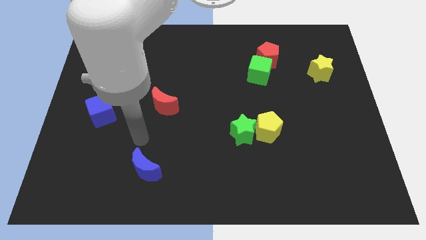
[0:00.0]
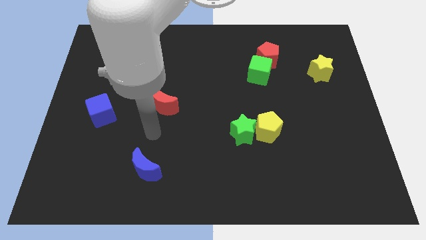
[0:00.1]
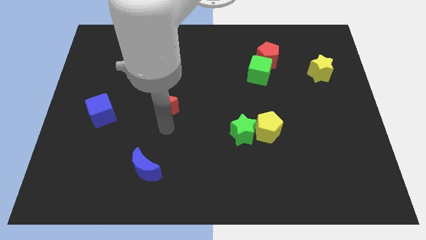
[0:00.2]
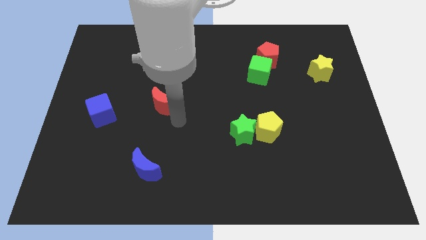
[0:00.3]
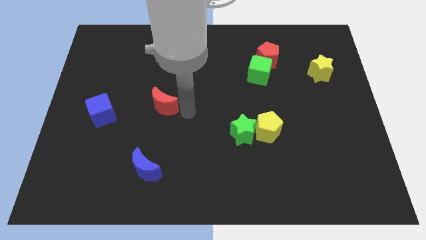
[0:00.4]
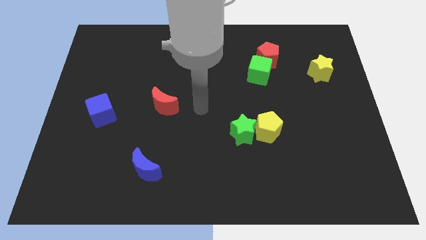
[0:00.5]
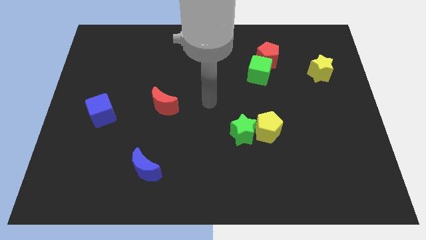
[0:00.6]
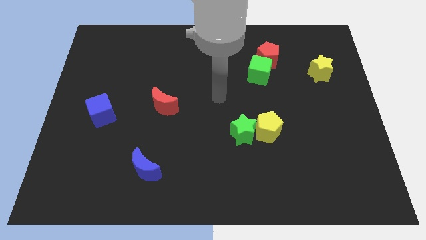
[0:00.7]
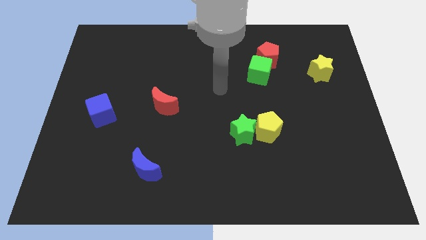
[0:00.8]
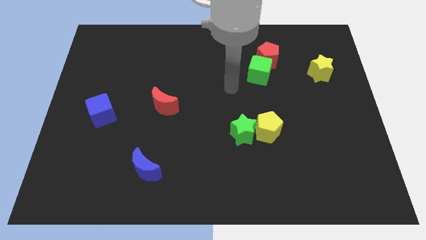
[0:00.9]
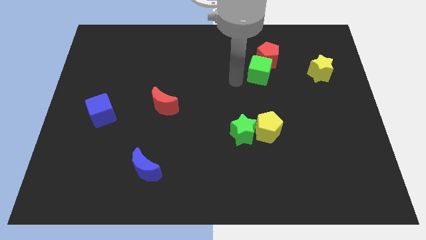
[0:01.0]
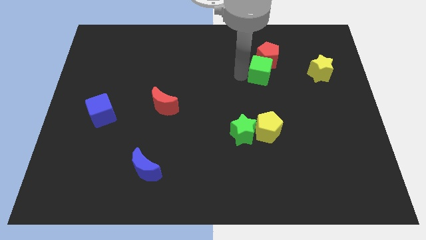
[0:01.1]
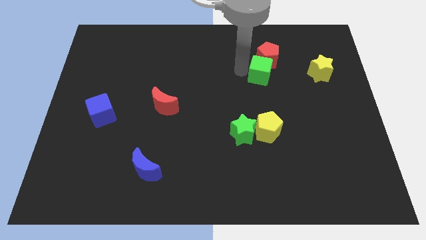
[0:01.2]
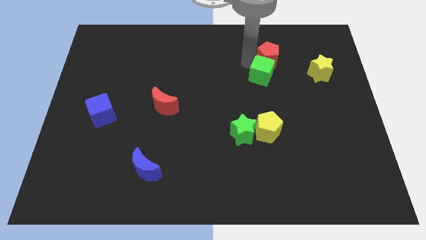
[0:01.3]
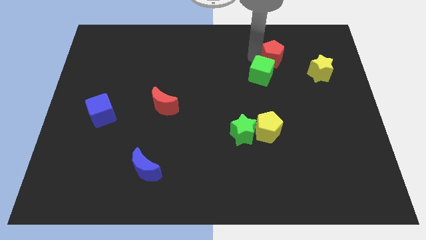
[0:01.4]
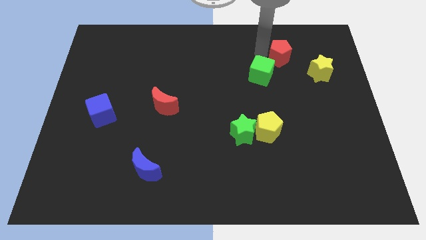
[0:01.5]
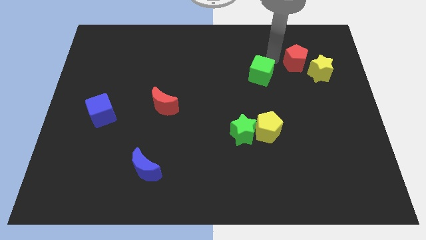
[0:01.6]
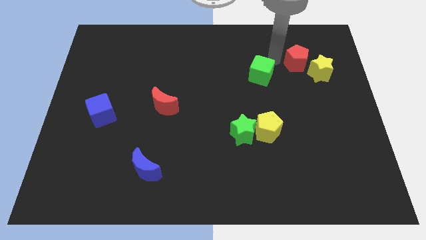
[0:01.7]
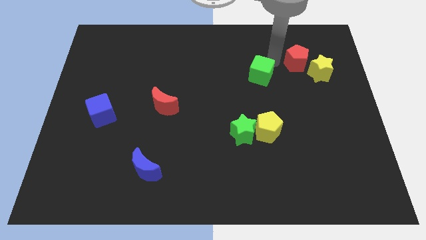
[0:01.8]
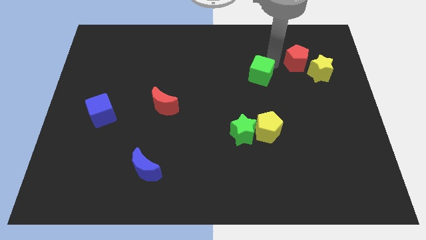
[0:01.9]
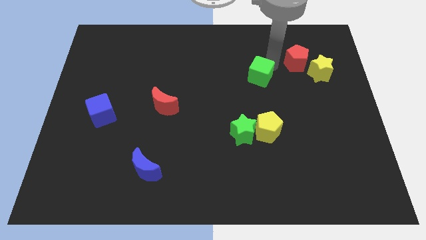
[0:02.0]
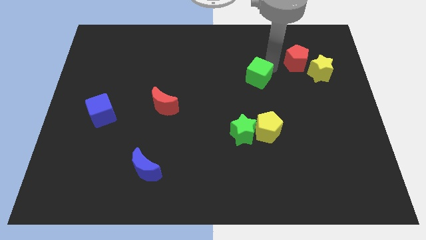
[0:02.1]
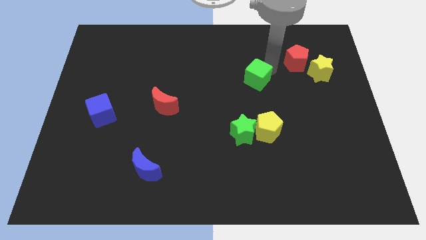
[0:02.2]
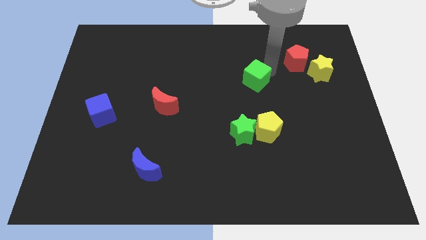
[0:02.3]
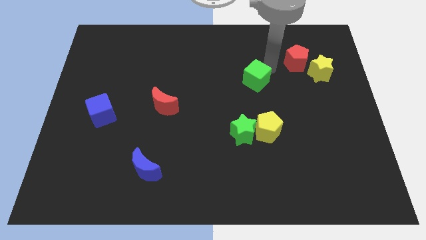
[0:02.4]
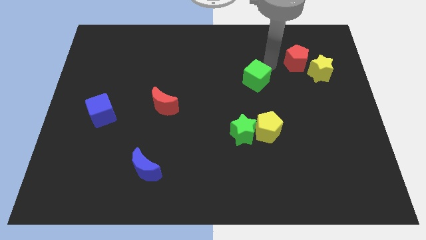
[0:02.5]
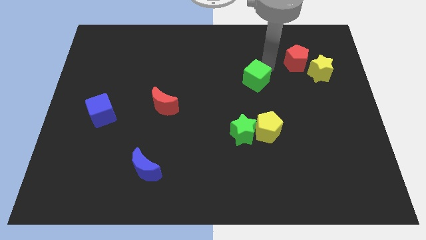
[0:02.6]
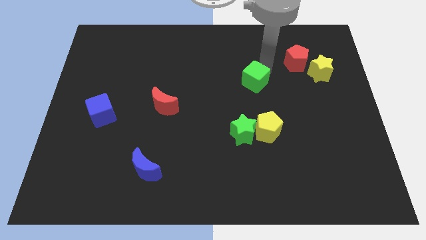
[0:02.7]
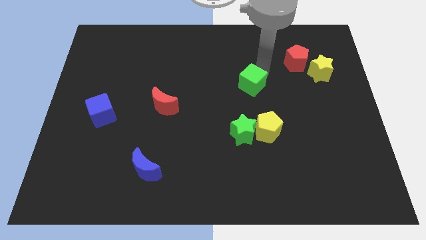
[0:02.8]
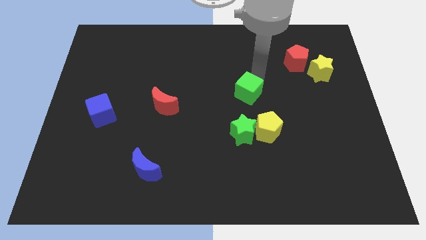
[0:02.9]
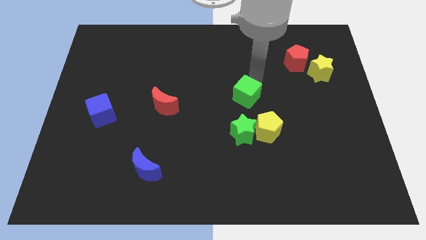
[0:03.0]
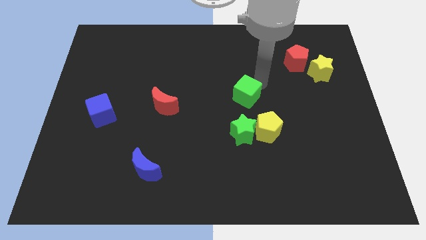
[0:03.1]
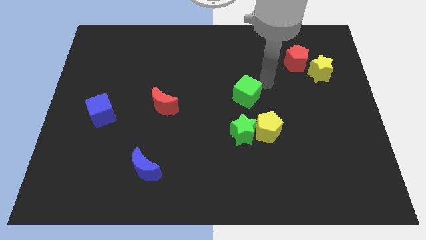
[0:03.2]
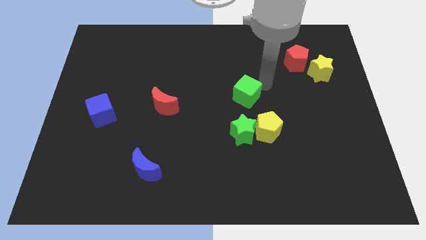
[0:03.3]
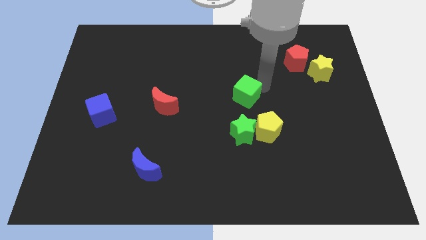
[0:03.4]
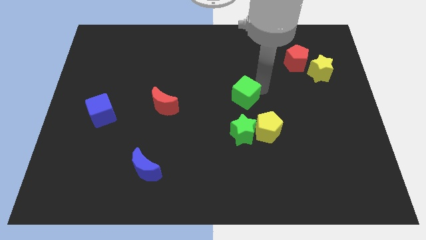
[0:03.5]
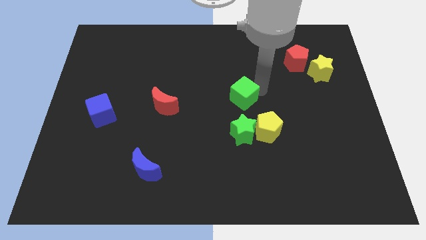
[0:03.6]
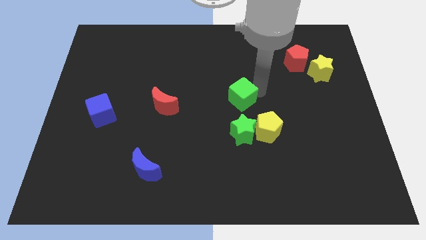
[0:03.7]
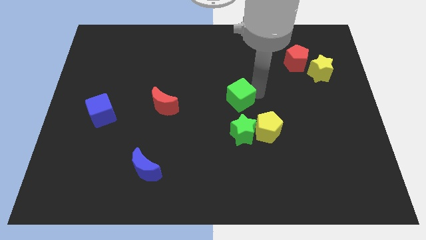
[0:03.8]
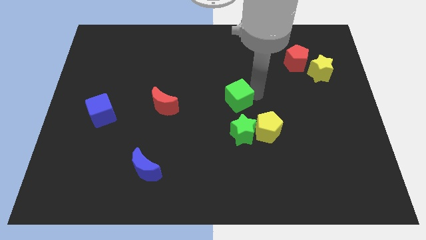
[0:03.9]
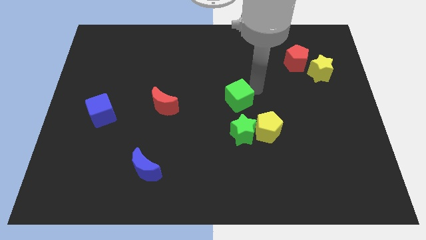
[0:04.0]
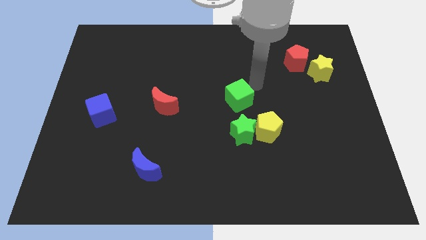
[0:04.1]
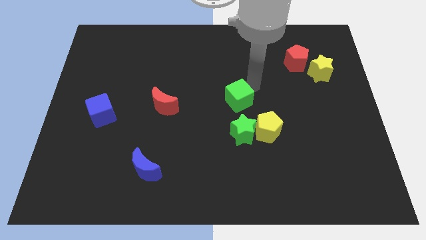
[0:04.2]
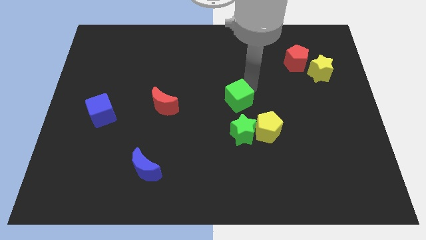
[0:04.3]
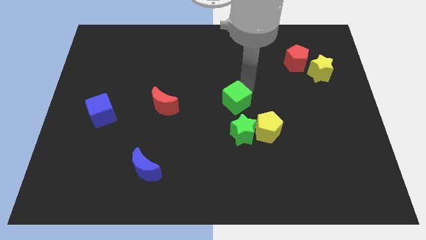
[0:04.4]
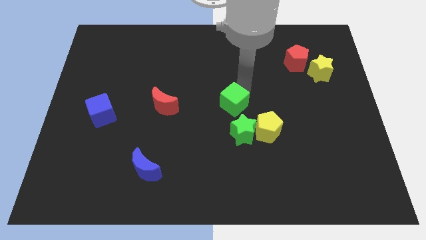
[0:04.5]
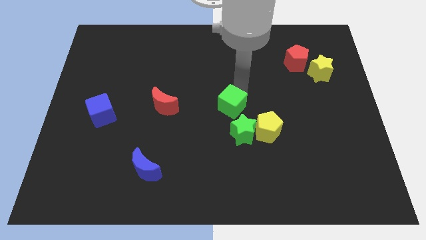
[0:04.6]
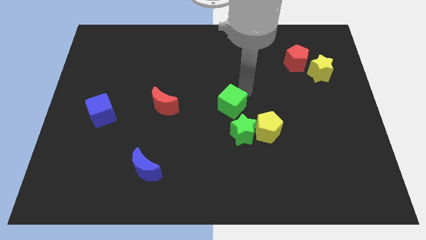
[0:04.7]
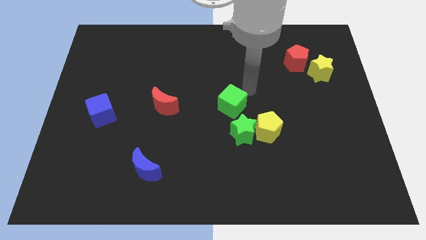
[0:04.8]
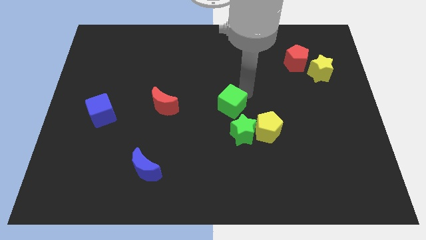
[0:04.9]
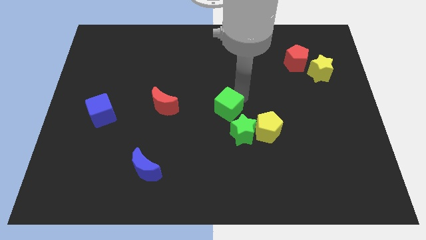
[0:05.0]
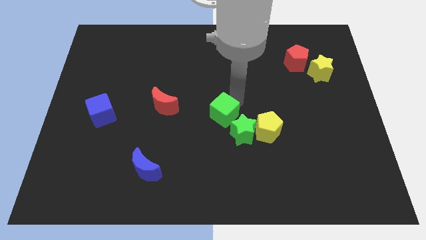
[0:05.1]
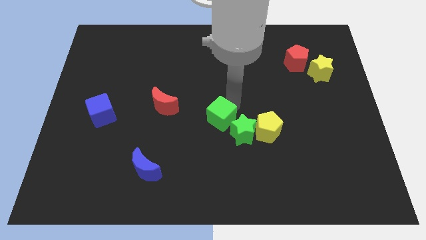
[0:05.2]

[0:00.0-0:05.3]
put the green cube just left of the green star

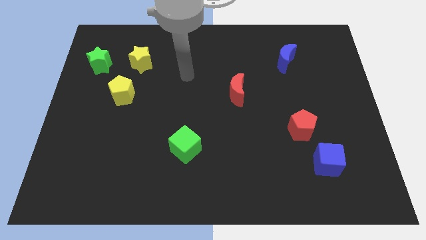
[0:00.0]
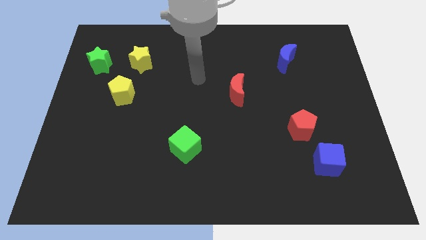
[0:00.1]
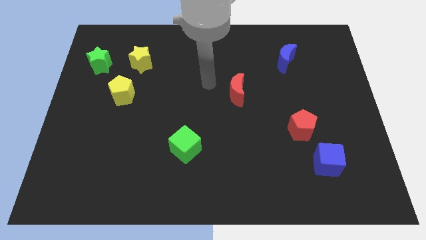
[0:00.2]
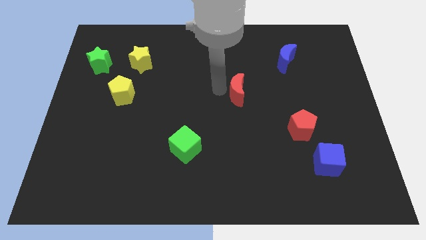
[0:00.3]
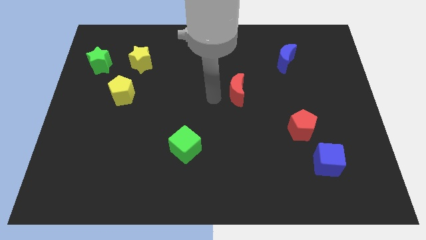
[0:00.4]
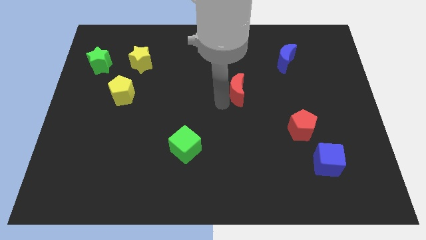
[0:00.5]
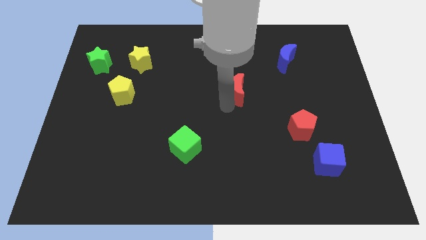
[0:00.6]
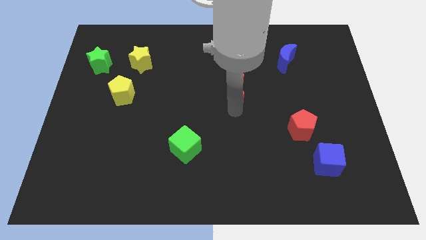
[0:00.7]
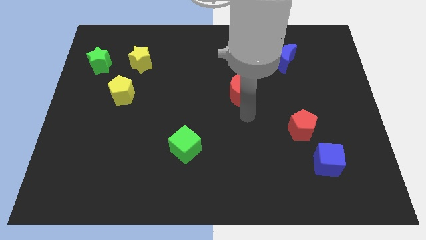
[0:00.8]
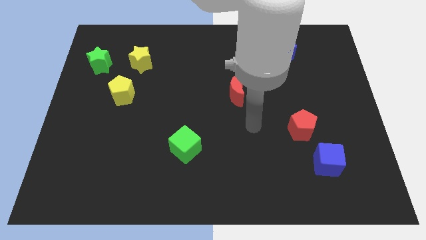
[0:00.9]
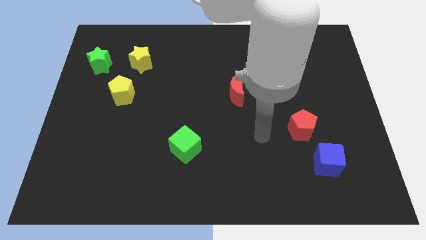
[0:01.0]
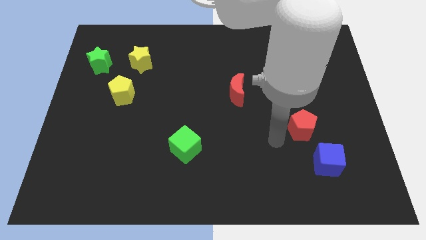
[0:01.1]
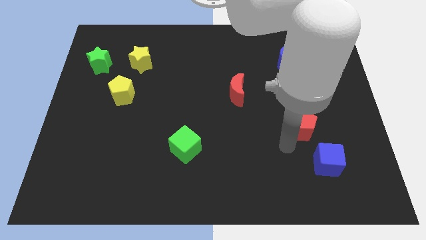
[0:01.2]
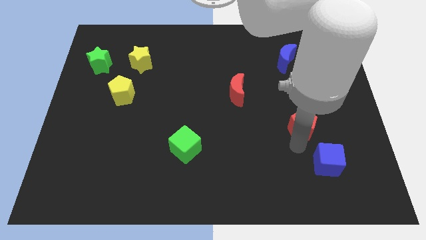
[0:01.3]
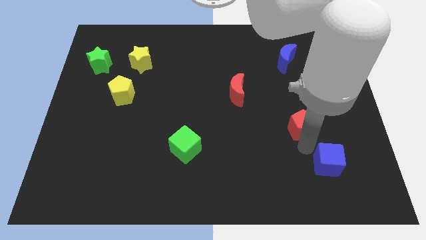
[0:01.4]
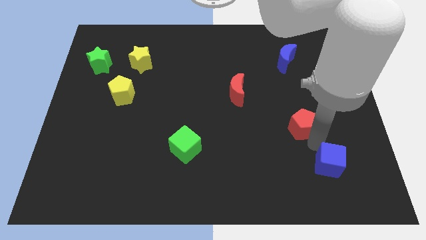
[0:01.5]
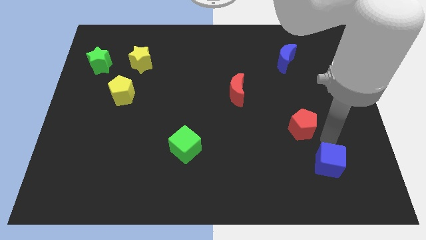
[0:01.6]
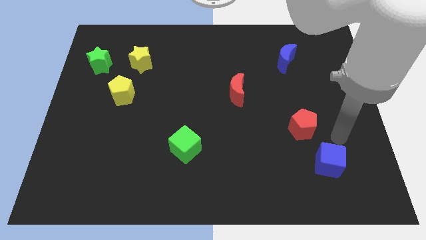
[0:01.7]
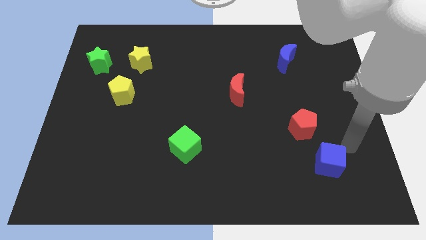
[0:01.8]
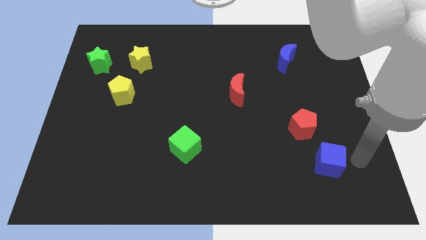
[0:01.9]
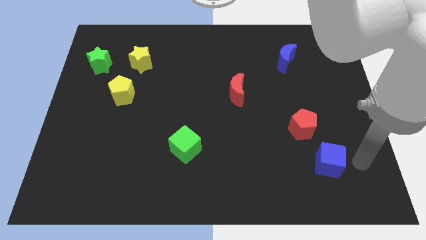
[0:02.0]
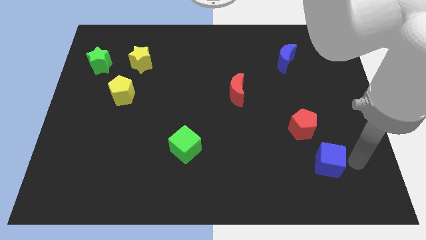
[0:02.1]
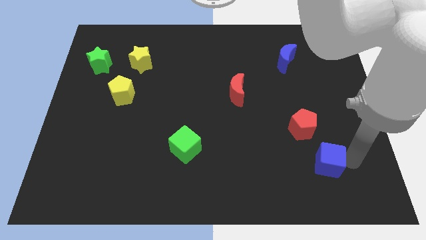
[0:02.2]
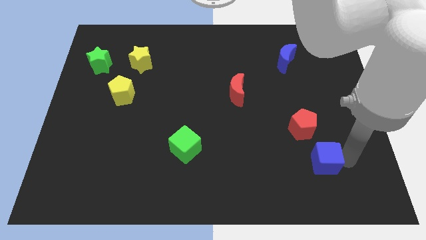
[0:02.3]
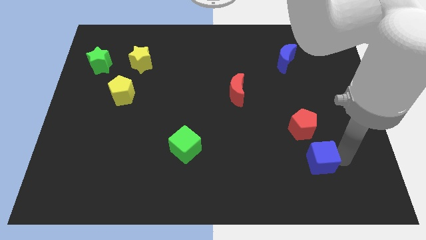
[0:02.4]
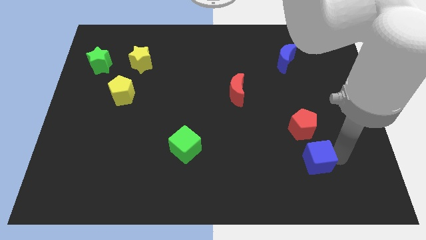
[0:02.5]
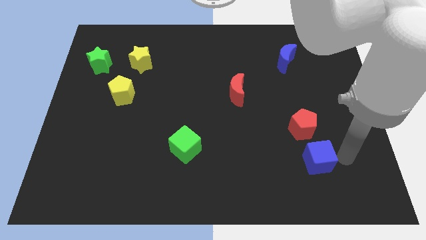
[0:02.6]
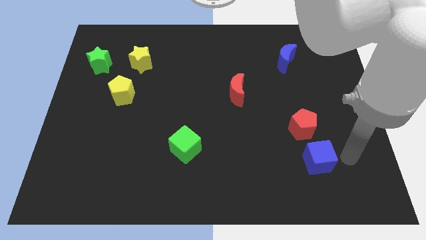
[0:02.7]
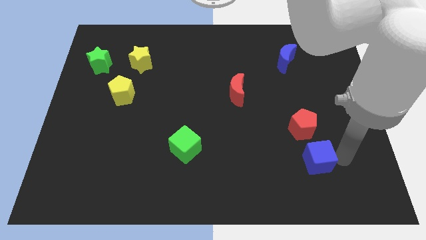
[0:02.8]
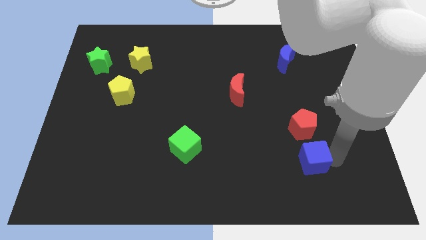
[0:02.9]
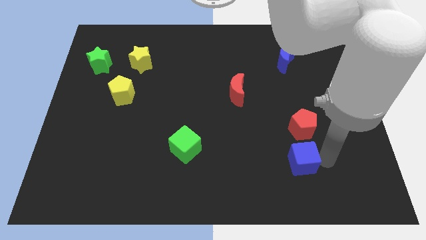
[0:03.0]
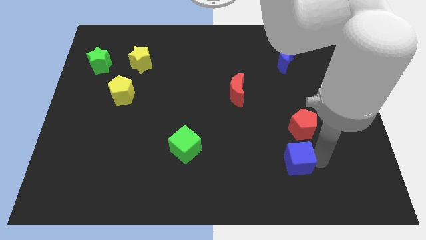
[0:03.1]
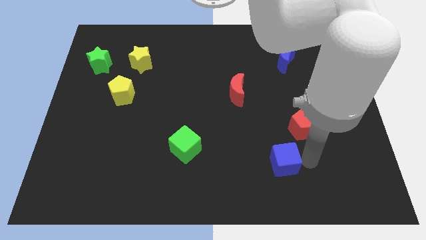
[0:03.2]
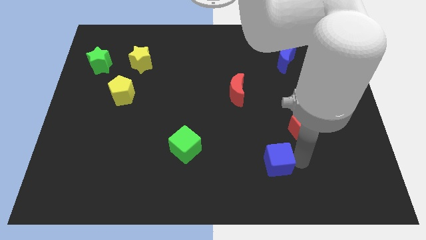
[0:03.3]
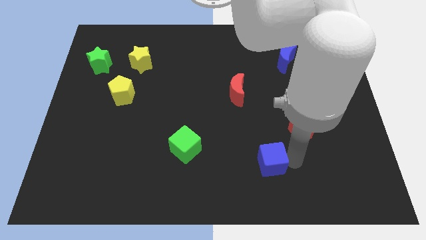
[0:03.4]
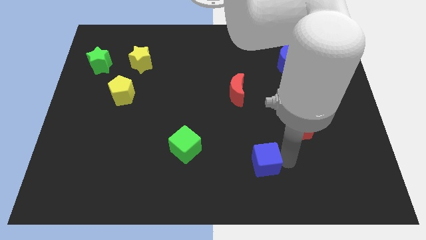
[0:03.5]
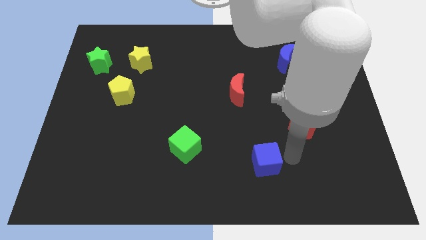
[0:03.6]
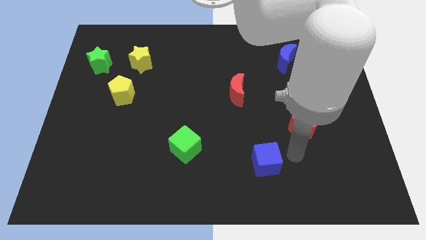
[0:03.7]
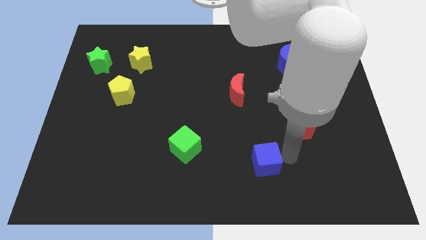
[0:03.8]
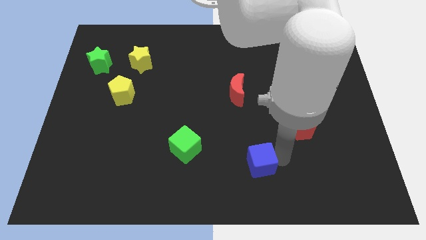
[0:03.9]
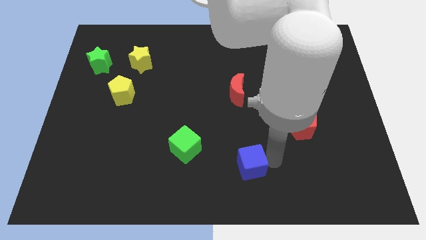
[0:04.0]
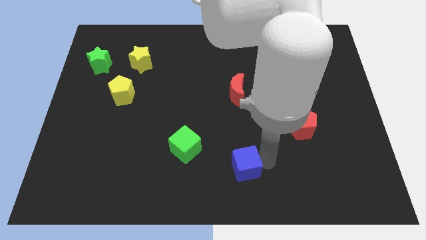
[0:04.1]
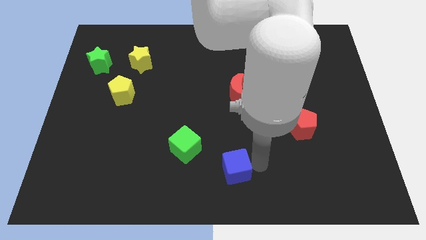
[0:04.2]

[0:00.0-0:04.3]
slide the blue cube diagonally down and to the right of the green cube
